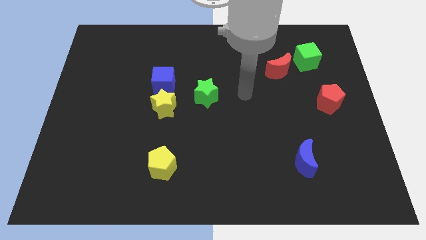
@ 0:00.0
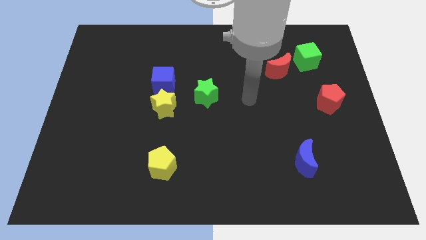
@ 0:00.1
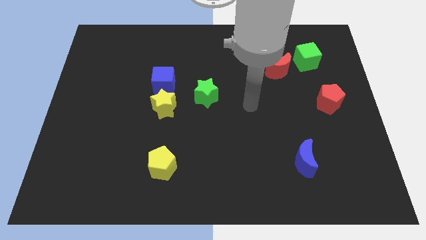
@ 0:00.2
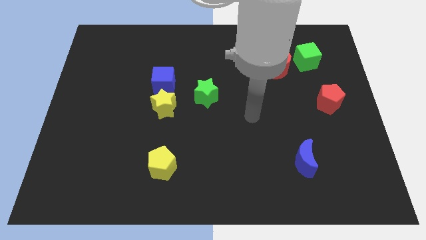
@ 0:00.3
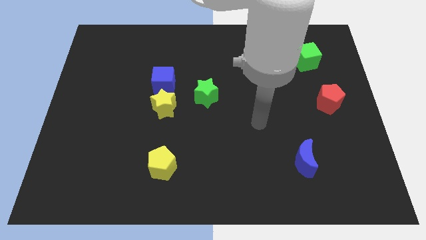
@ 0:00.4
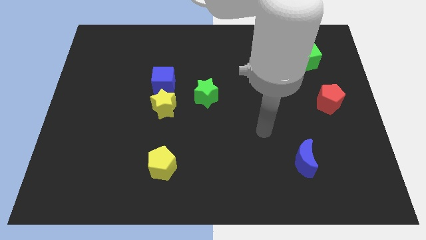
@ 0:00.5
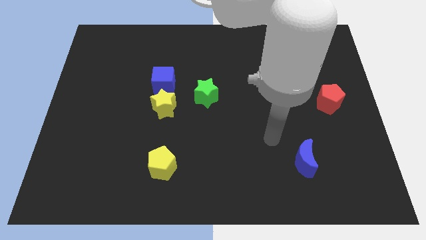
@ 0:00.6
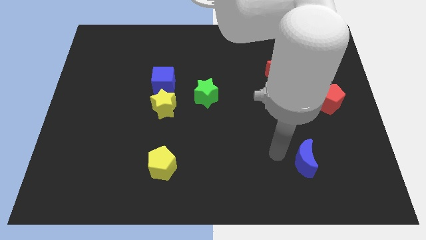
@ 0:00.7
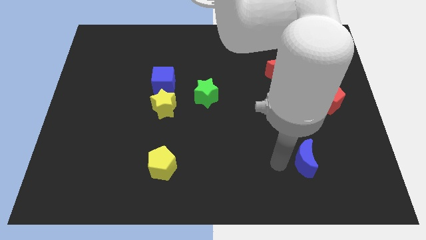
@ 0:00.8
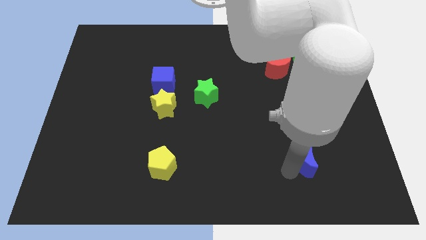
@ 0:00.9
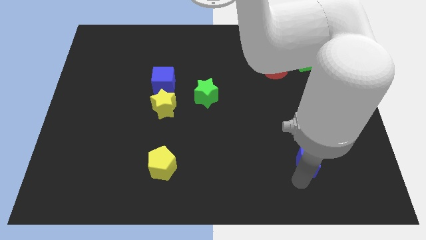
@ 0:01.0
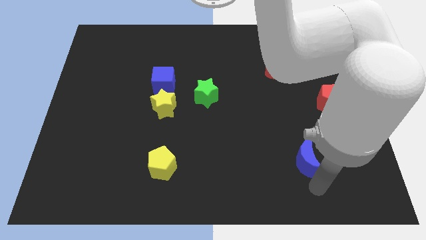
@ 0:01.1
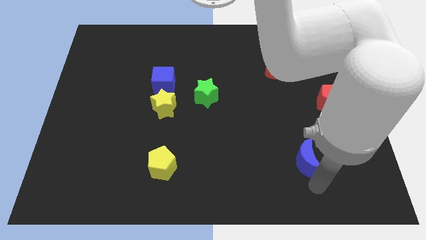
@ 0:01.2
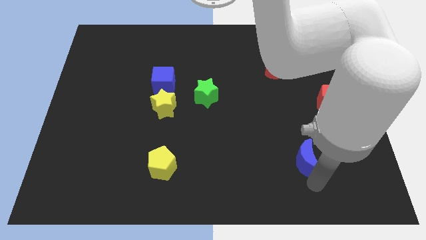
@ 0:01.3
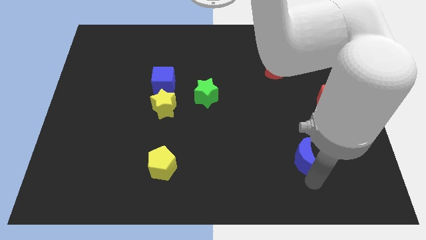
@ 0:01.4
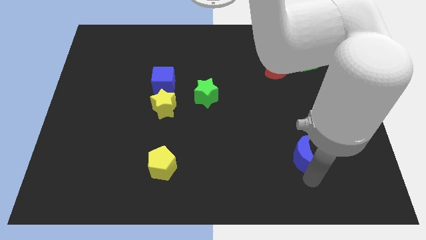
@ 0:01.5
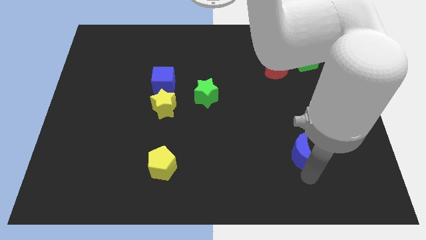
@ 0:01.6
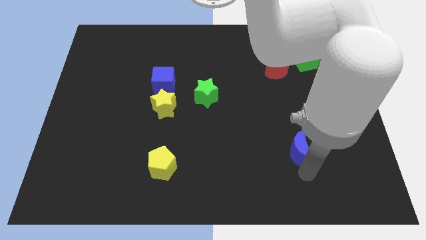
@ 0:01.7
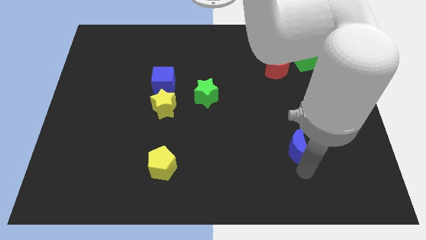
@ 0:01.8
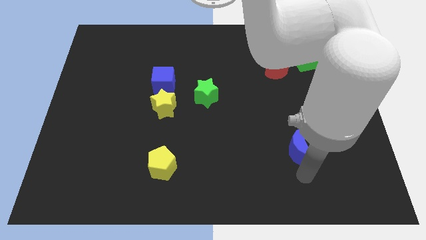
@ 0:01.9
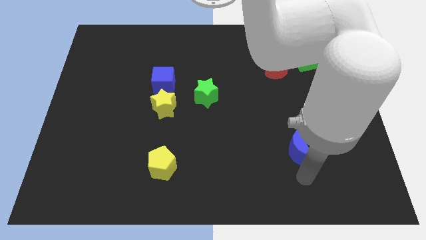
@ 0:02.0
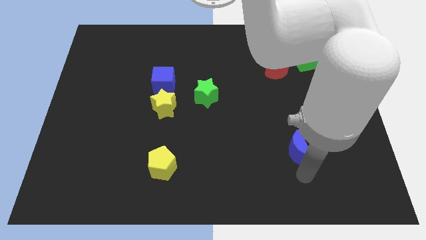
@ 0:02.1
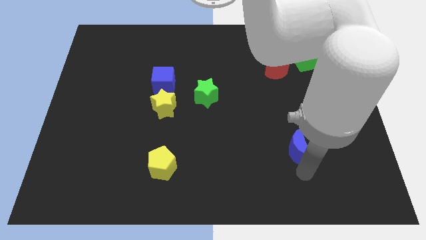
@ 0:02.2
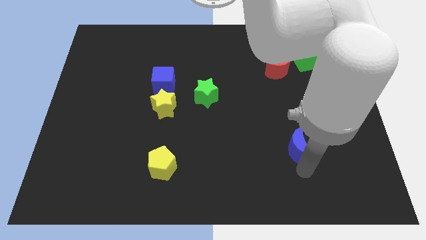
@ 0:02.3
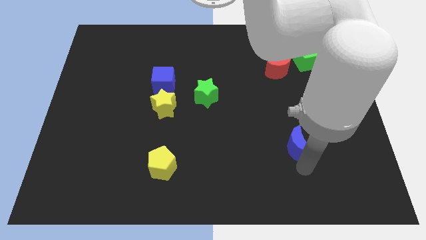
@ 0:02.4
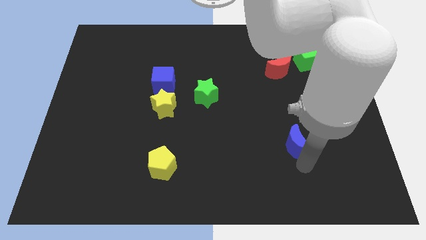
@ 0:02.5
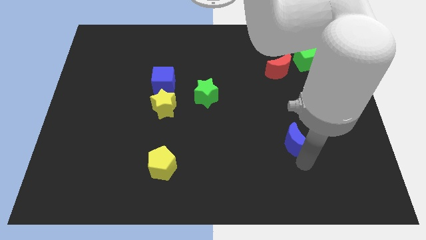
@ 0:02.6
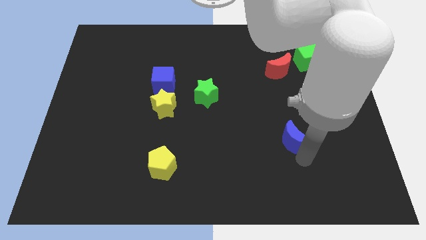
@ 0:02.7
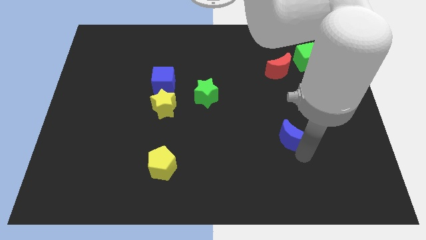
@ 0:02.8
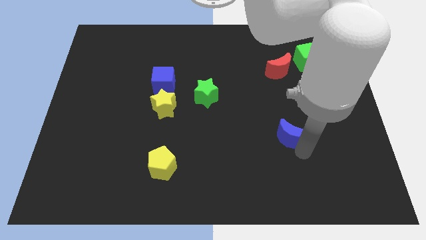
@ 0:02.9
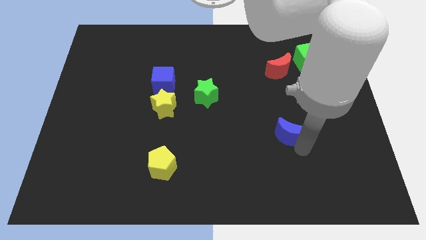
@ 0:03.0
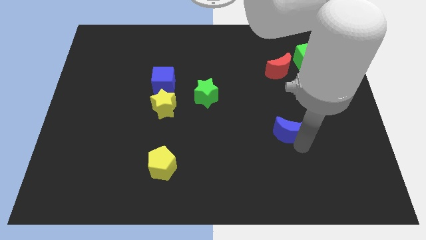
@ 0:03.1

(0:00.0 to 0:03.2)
slightly push the blue moon upwards

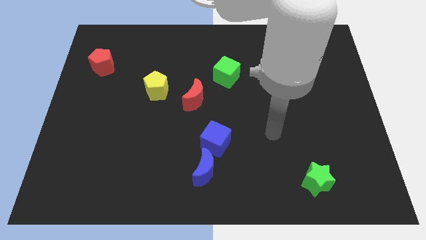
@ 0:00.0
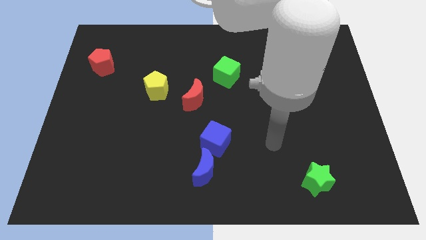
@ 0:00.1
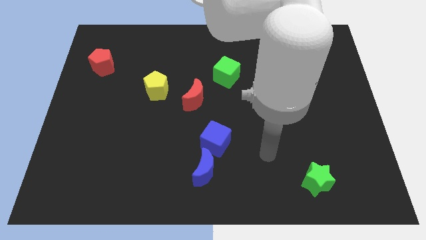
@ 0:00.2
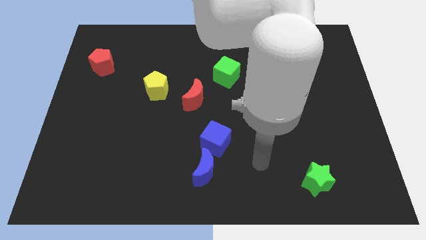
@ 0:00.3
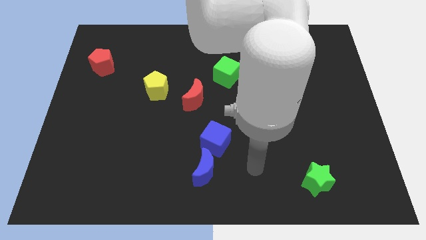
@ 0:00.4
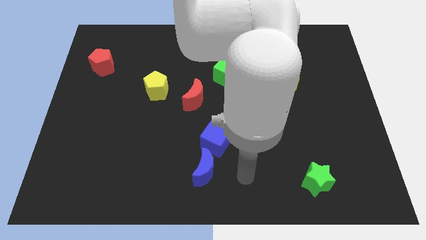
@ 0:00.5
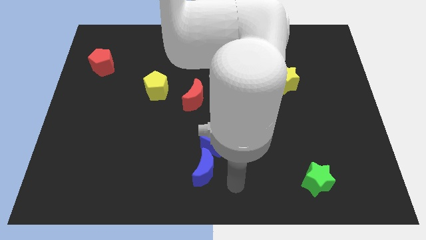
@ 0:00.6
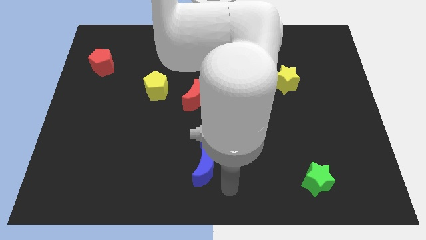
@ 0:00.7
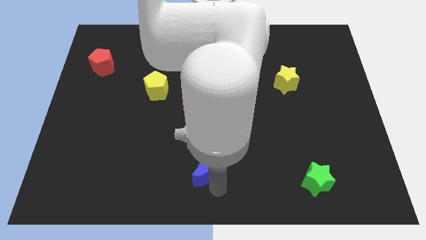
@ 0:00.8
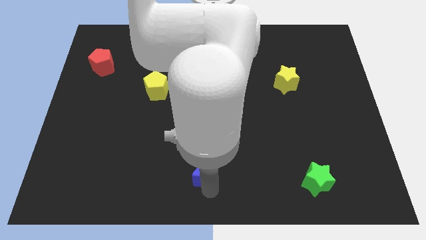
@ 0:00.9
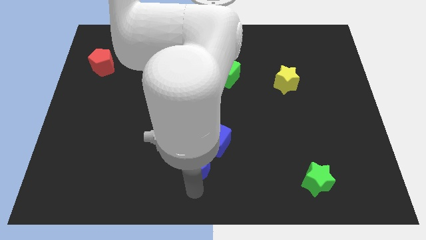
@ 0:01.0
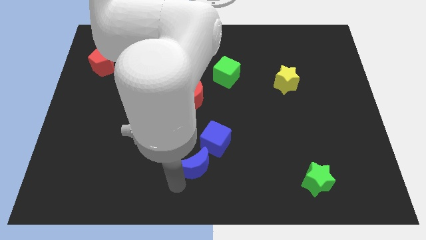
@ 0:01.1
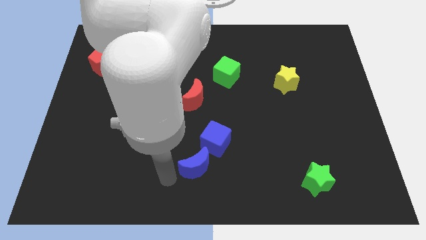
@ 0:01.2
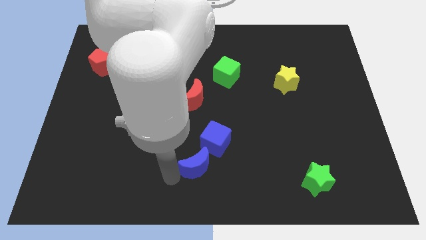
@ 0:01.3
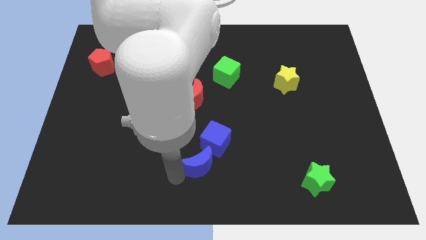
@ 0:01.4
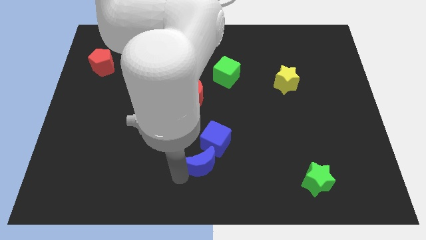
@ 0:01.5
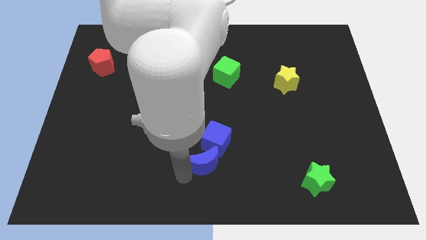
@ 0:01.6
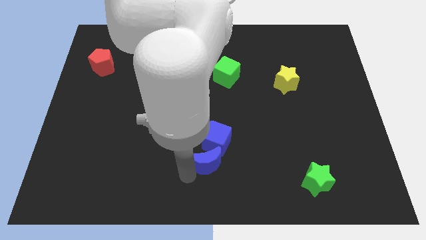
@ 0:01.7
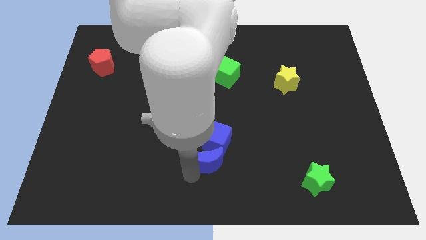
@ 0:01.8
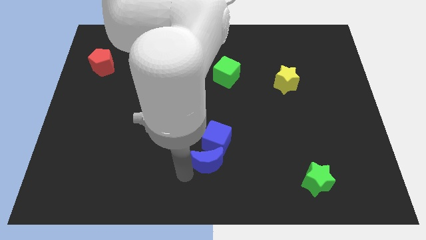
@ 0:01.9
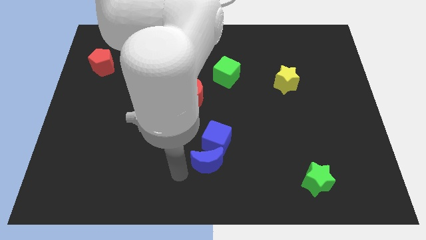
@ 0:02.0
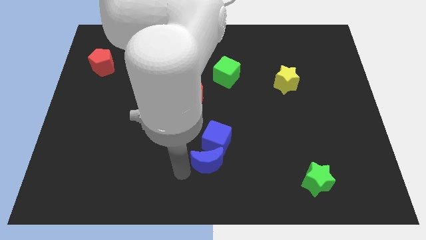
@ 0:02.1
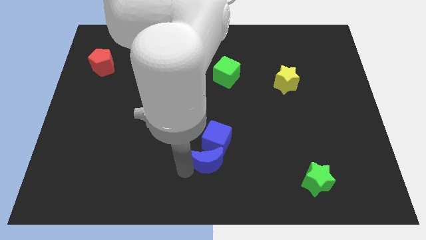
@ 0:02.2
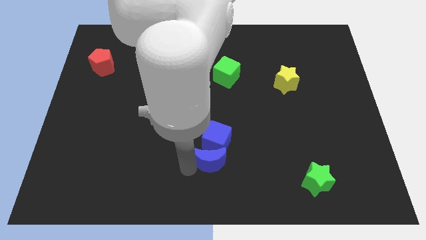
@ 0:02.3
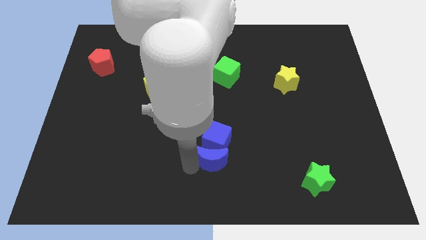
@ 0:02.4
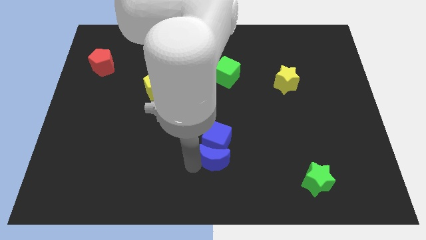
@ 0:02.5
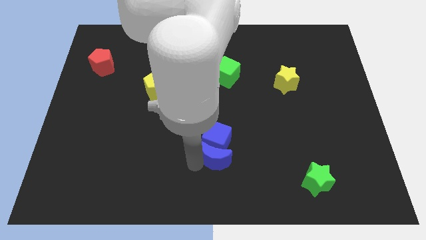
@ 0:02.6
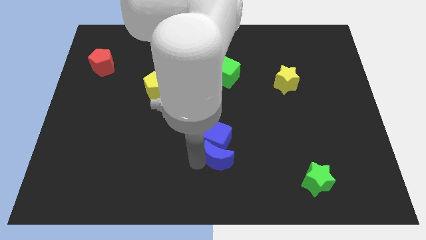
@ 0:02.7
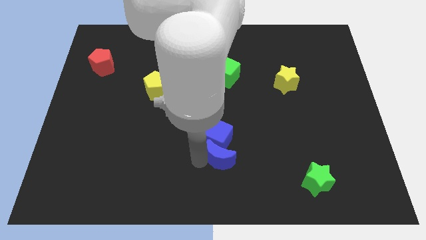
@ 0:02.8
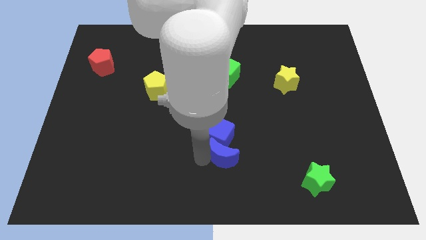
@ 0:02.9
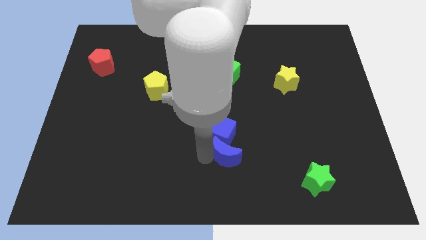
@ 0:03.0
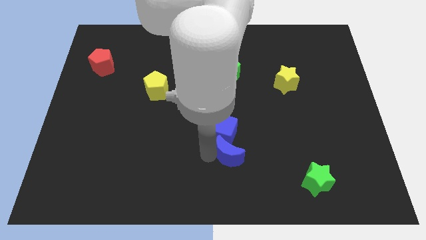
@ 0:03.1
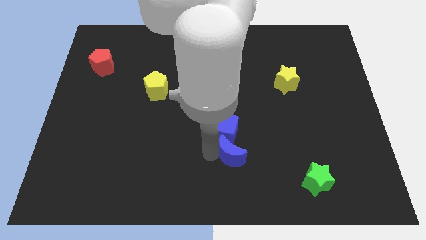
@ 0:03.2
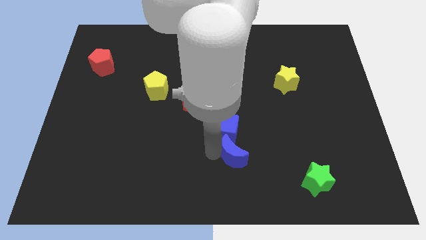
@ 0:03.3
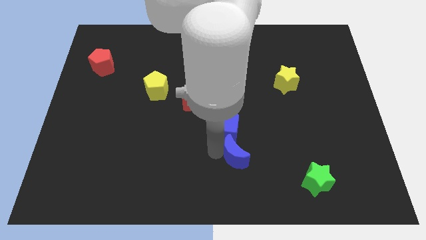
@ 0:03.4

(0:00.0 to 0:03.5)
slightly push the blue moon upwards and to the right

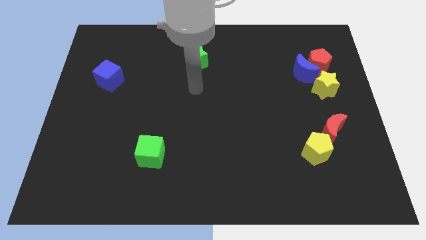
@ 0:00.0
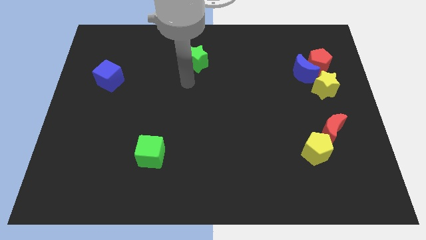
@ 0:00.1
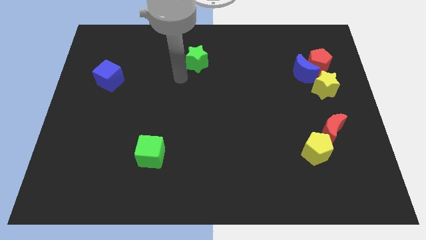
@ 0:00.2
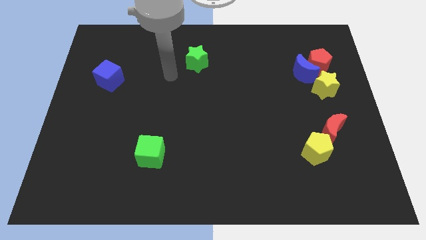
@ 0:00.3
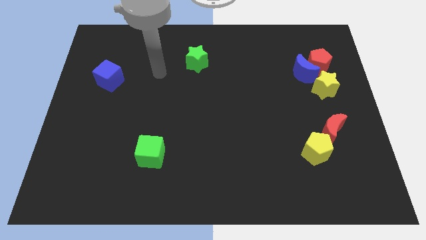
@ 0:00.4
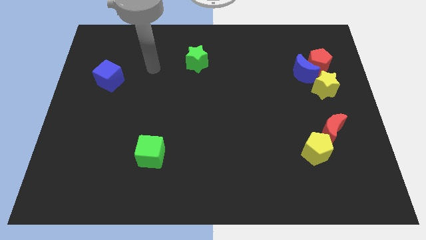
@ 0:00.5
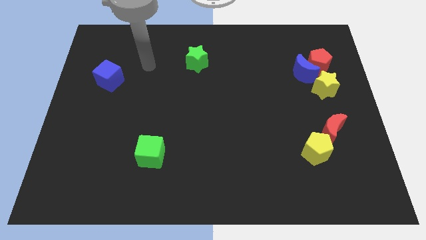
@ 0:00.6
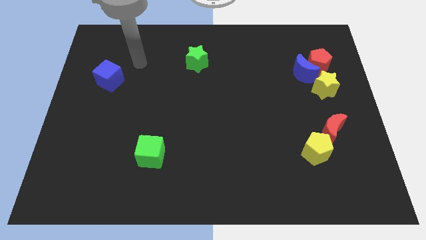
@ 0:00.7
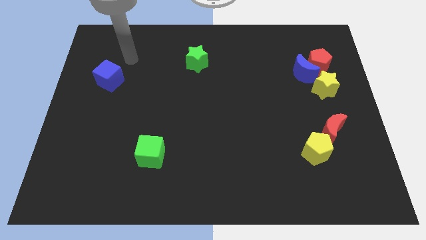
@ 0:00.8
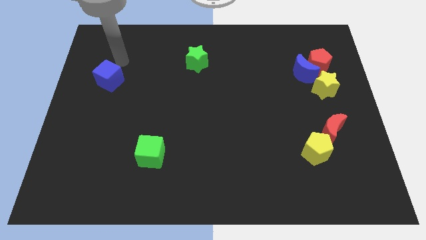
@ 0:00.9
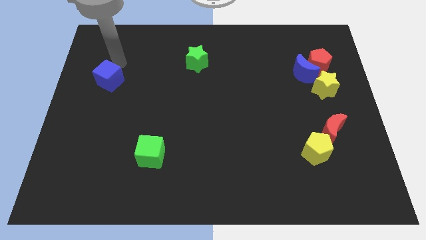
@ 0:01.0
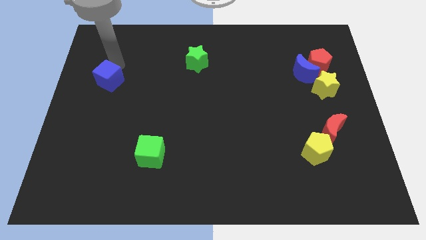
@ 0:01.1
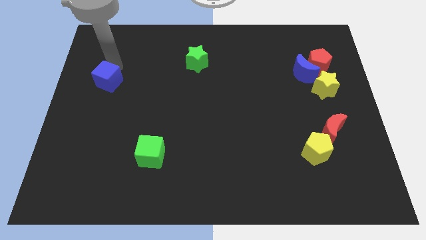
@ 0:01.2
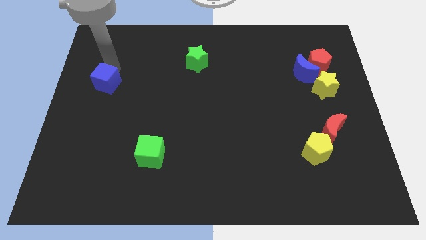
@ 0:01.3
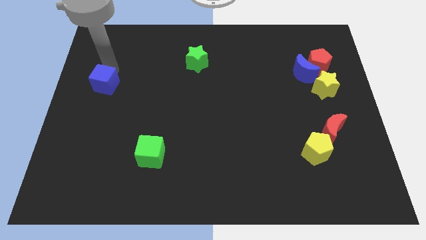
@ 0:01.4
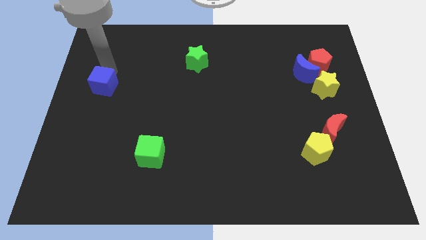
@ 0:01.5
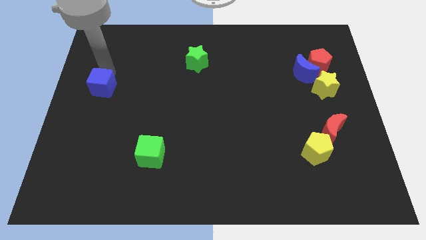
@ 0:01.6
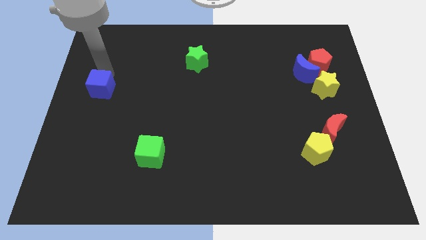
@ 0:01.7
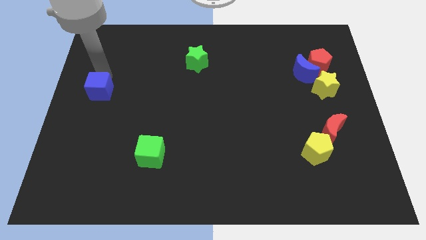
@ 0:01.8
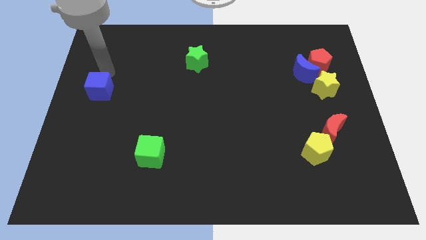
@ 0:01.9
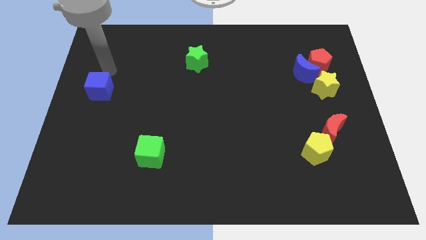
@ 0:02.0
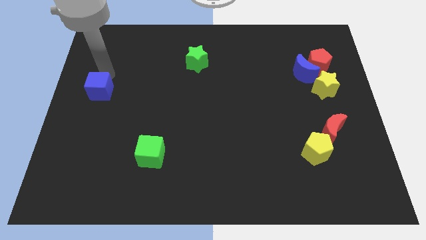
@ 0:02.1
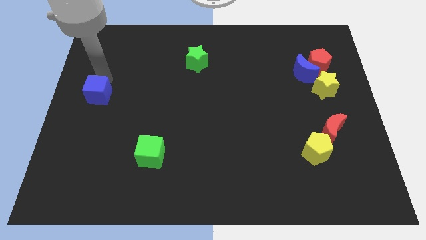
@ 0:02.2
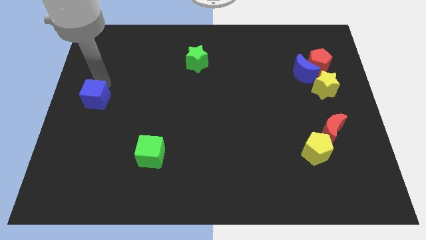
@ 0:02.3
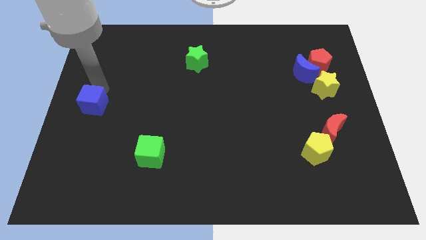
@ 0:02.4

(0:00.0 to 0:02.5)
move the blue cube down slightly
